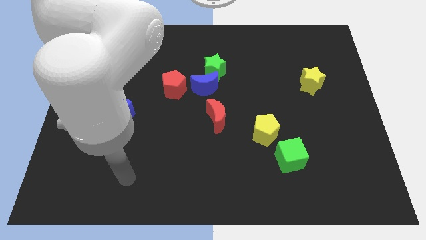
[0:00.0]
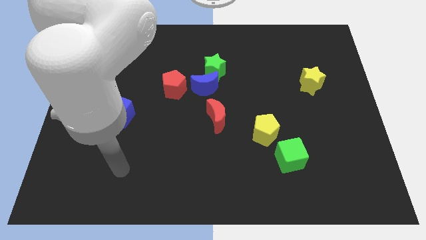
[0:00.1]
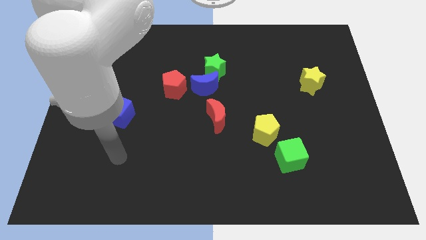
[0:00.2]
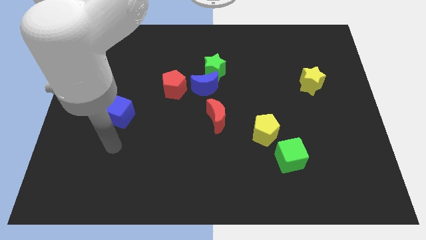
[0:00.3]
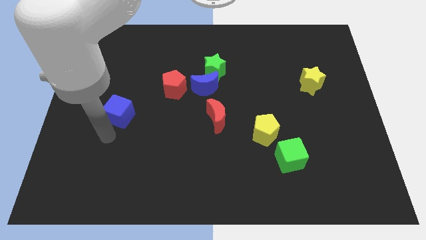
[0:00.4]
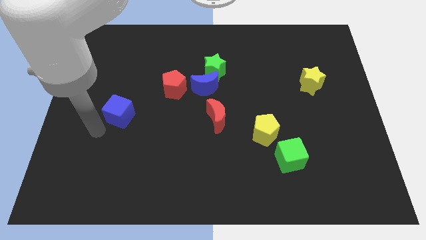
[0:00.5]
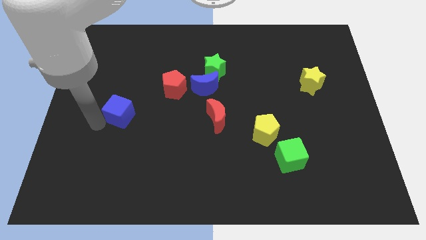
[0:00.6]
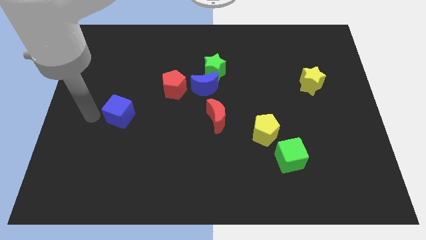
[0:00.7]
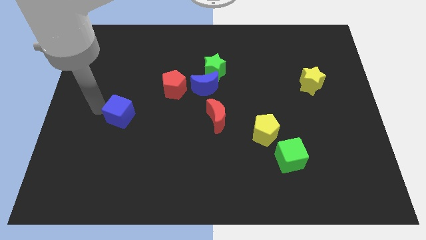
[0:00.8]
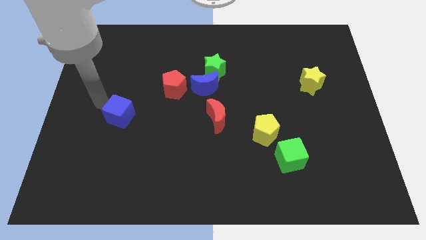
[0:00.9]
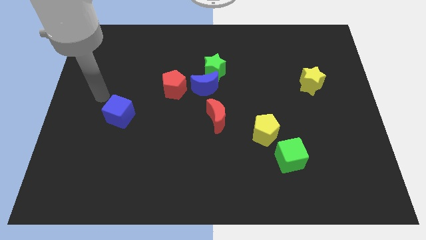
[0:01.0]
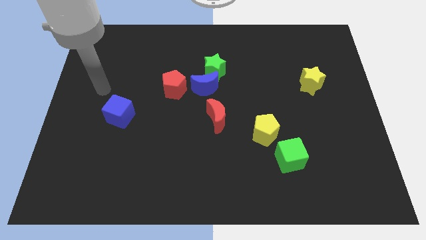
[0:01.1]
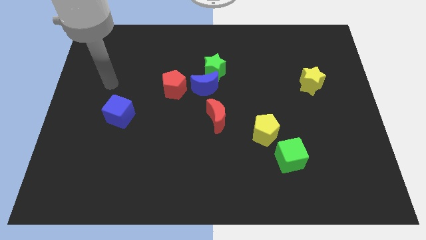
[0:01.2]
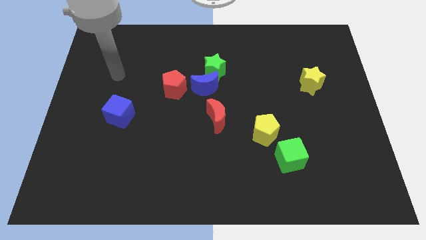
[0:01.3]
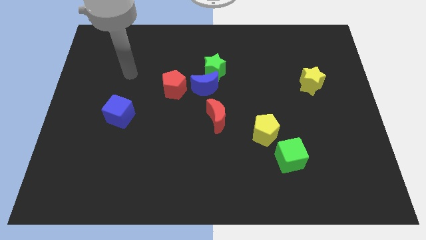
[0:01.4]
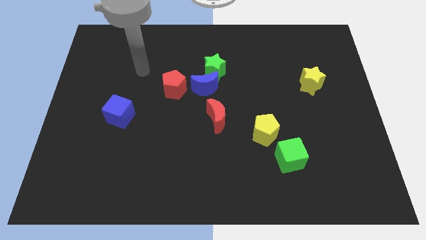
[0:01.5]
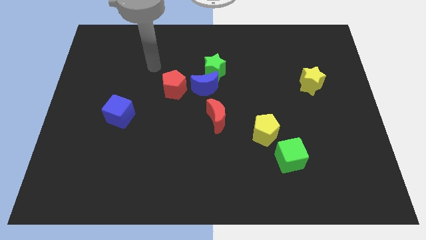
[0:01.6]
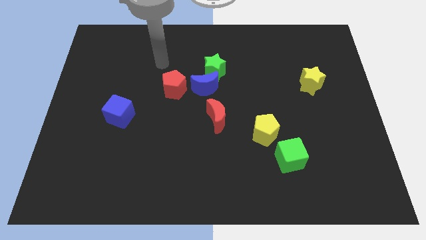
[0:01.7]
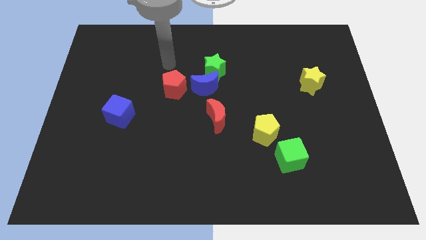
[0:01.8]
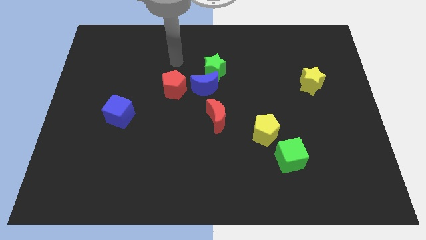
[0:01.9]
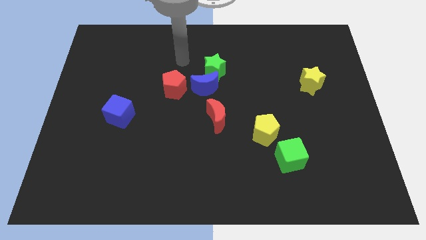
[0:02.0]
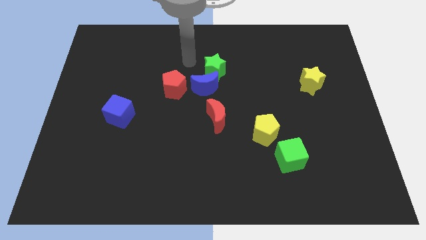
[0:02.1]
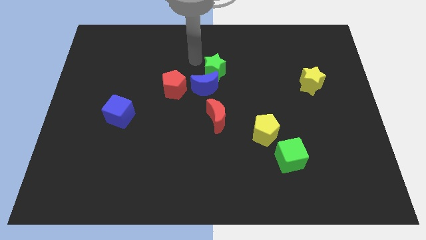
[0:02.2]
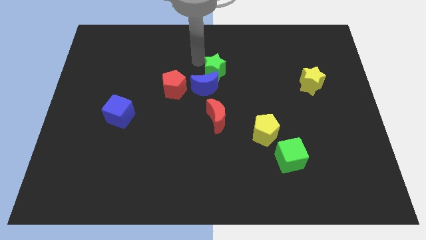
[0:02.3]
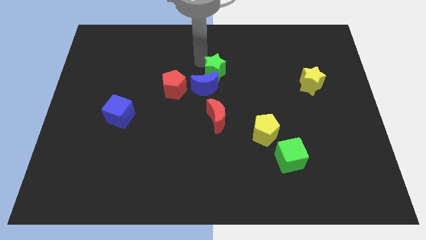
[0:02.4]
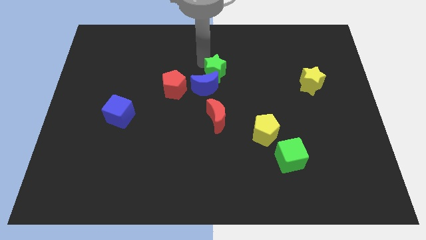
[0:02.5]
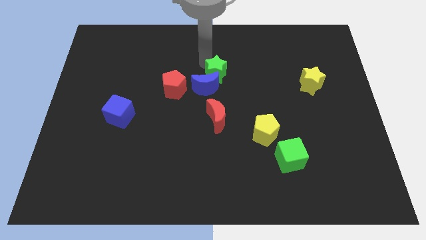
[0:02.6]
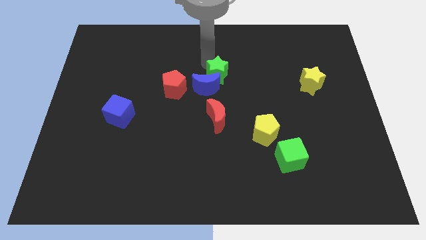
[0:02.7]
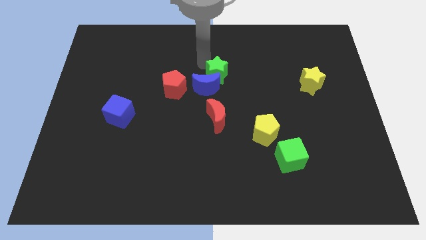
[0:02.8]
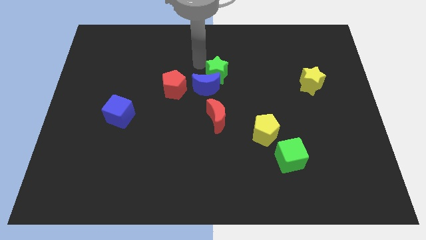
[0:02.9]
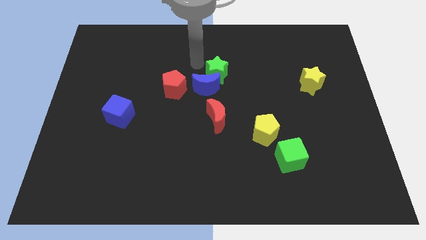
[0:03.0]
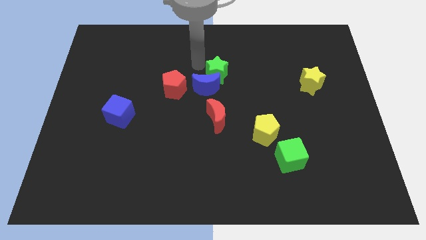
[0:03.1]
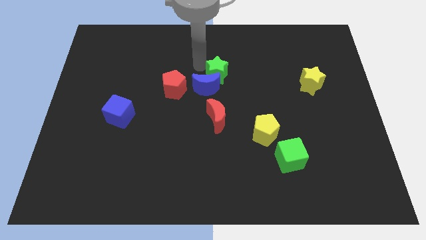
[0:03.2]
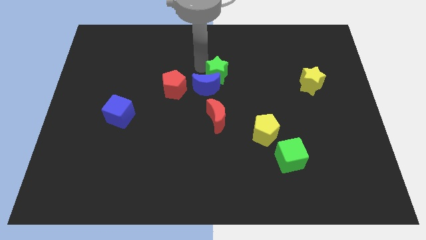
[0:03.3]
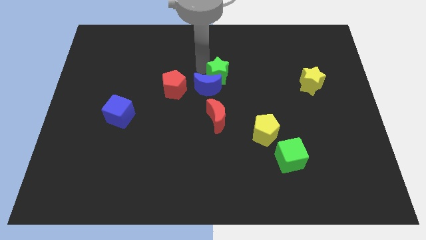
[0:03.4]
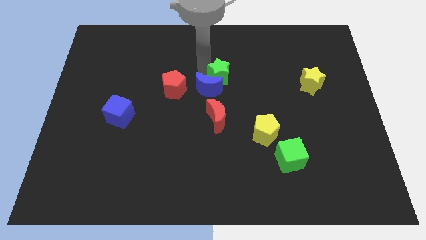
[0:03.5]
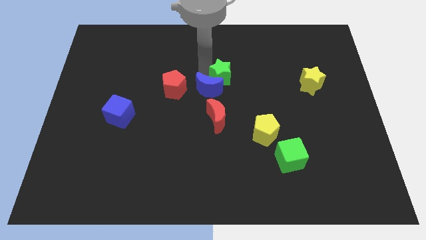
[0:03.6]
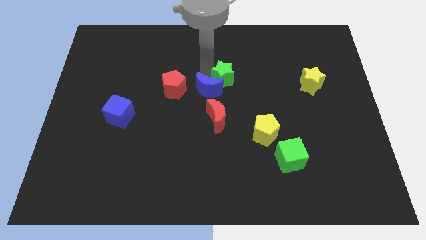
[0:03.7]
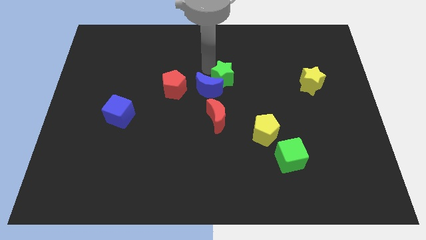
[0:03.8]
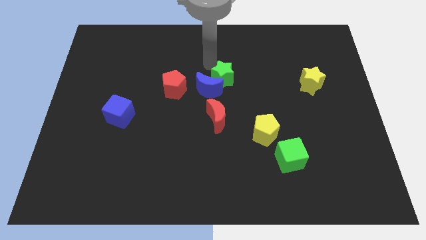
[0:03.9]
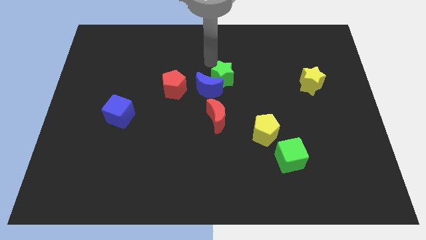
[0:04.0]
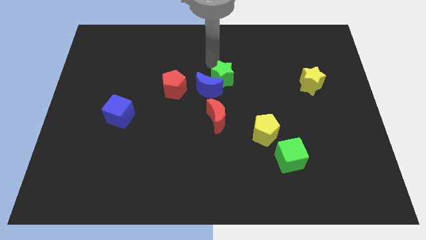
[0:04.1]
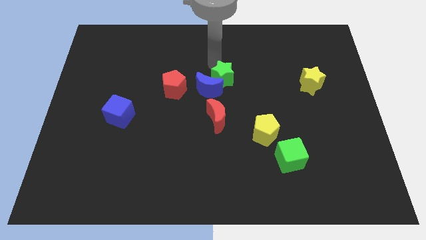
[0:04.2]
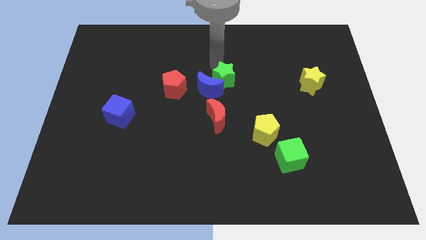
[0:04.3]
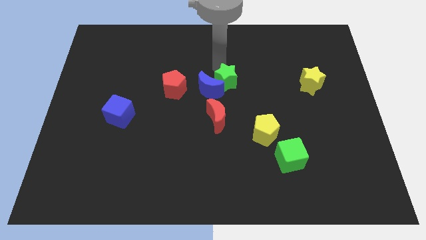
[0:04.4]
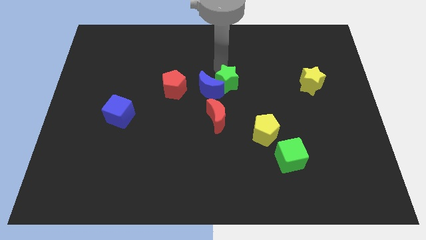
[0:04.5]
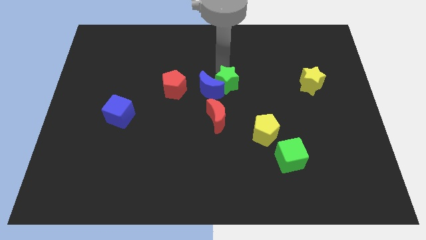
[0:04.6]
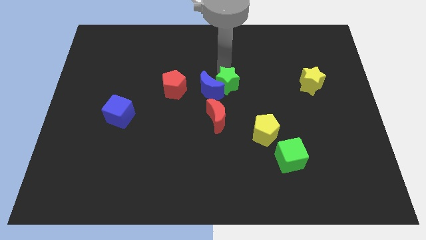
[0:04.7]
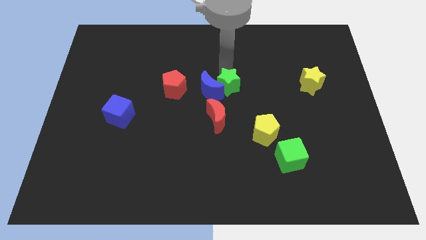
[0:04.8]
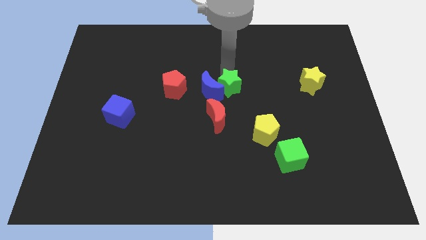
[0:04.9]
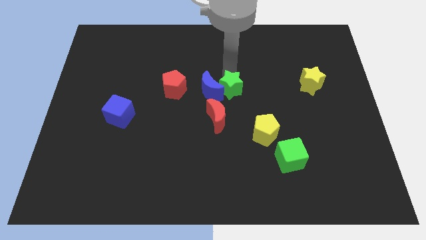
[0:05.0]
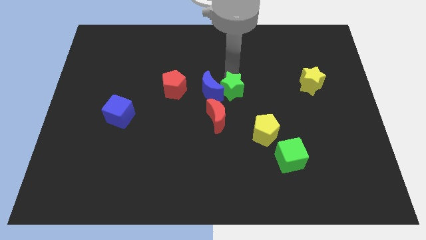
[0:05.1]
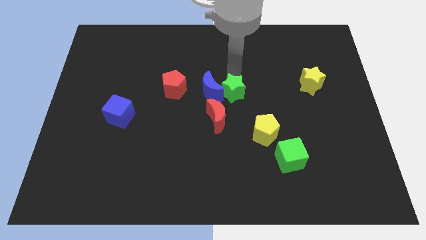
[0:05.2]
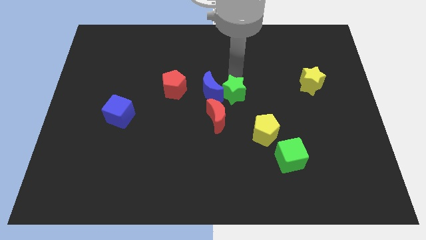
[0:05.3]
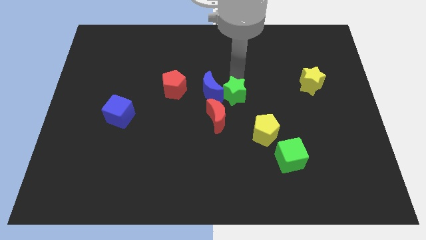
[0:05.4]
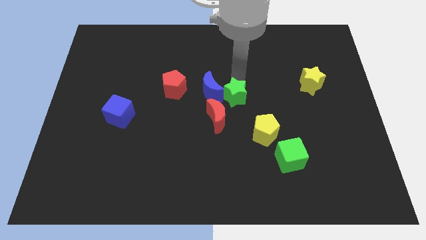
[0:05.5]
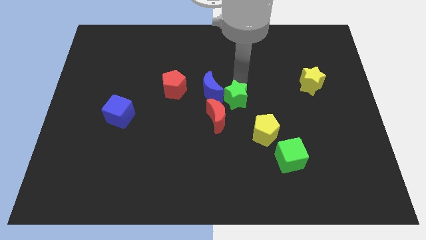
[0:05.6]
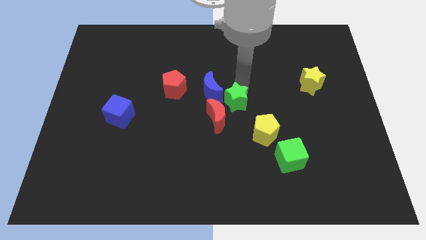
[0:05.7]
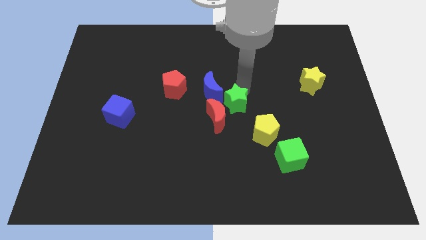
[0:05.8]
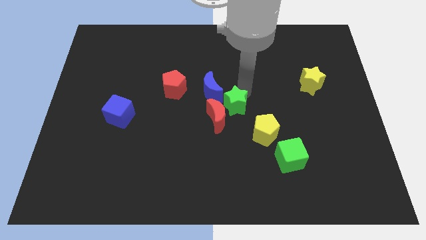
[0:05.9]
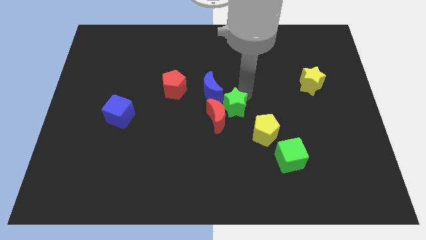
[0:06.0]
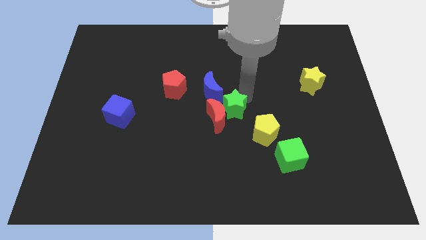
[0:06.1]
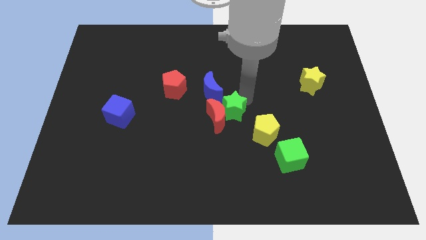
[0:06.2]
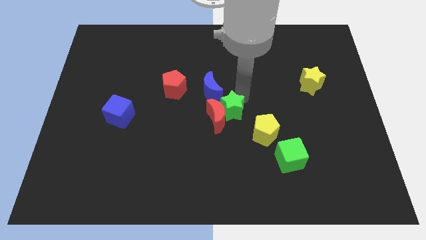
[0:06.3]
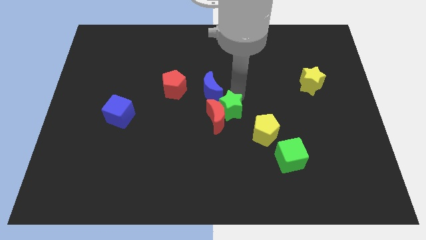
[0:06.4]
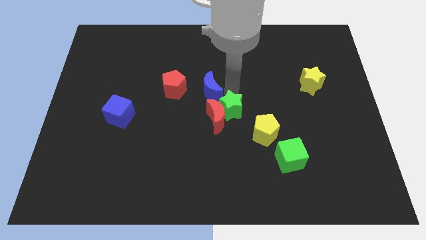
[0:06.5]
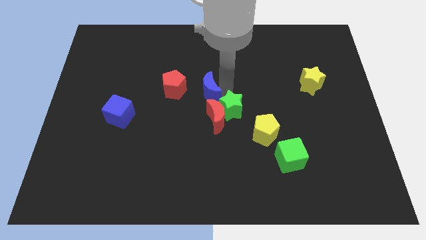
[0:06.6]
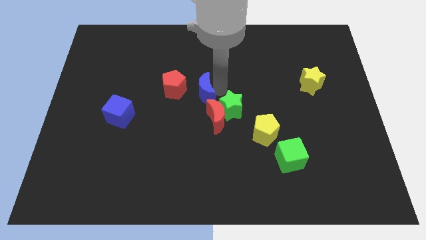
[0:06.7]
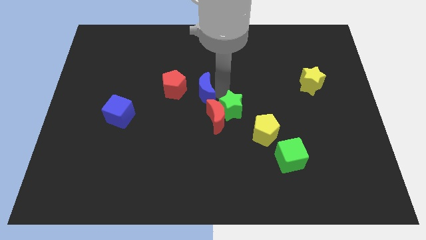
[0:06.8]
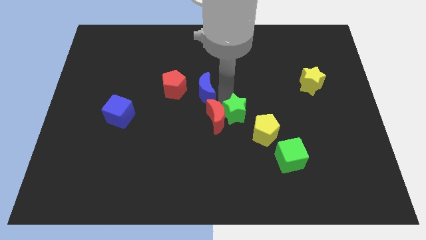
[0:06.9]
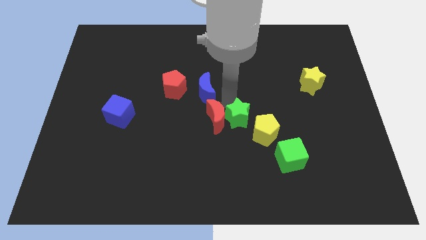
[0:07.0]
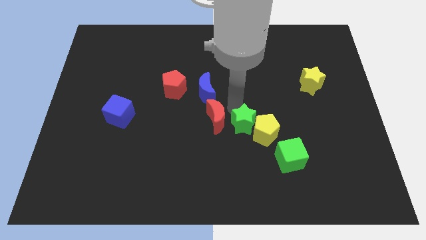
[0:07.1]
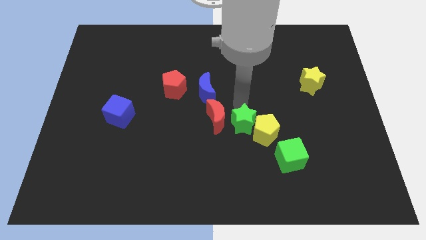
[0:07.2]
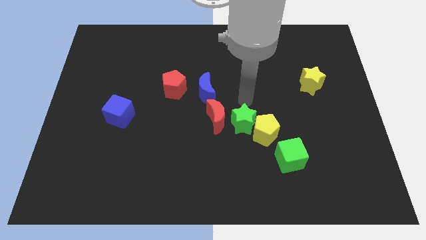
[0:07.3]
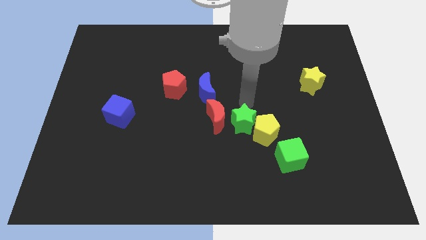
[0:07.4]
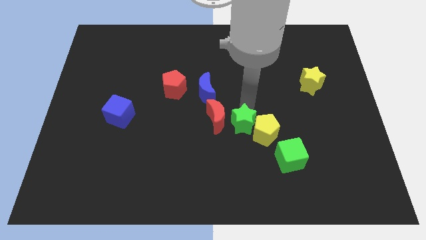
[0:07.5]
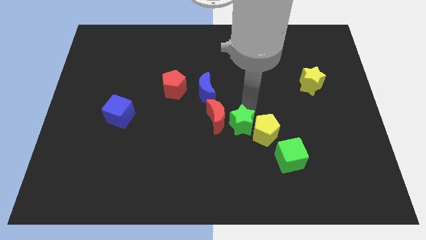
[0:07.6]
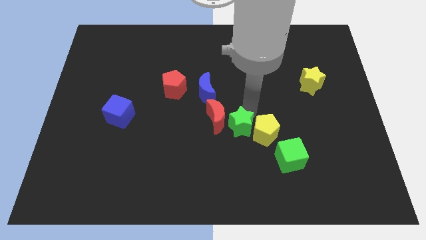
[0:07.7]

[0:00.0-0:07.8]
move the green star diagonally down and to the left of the yellow pentagon

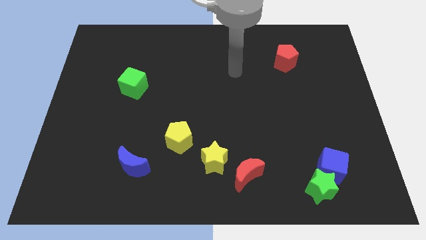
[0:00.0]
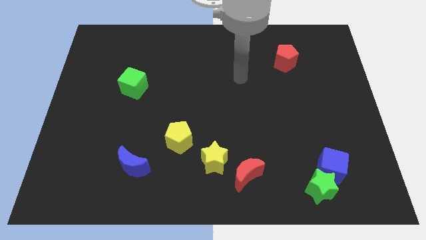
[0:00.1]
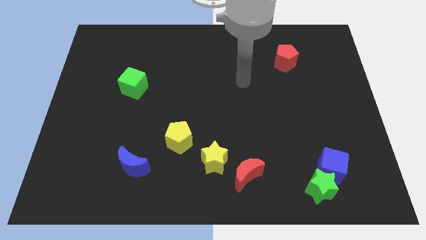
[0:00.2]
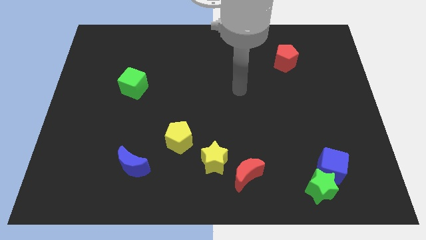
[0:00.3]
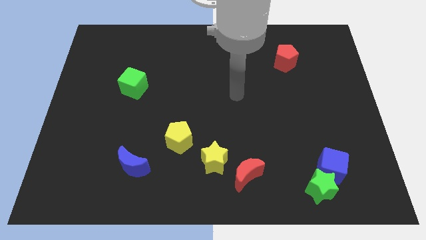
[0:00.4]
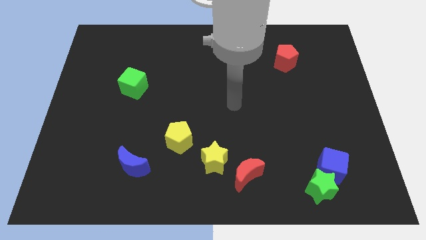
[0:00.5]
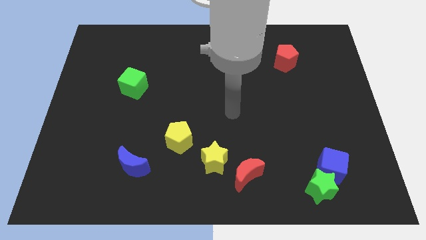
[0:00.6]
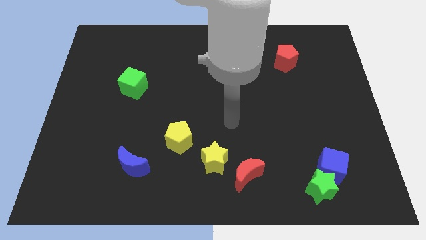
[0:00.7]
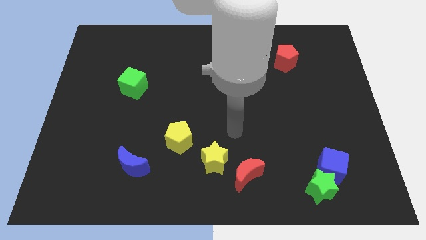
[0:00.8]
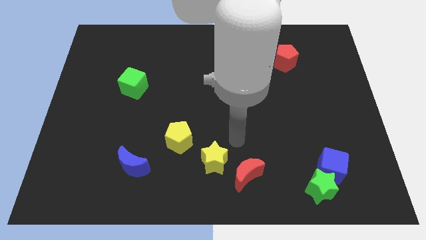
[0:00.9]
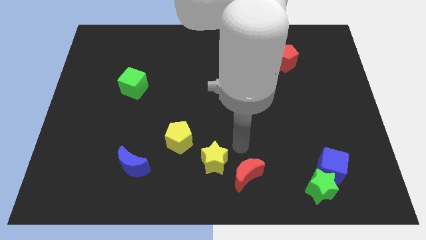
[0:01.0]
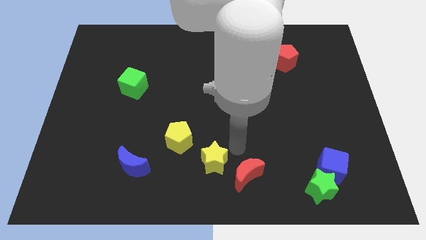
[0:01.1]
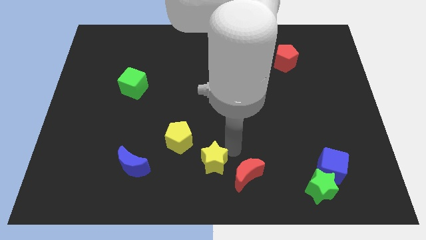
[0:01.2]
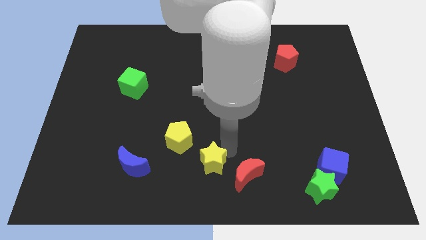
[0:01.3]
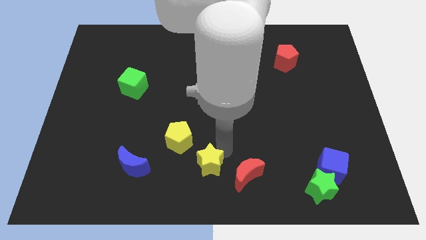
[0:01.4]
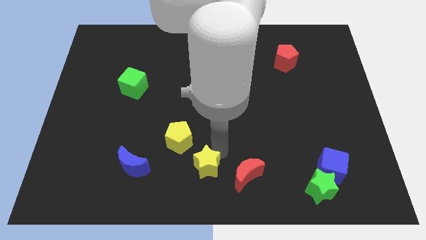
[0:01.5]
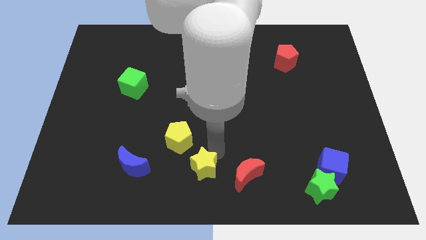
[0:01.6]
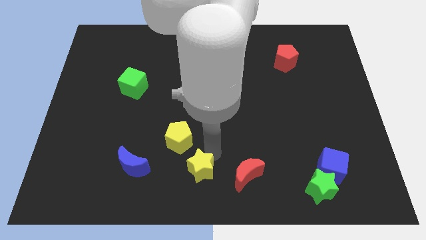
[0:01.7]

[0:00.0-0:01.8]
push the yellow star to the bottom of the yellow pentagon
